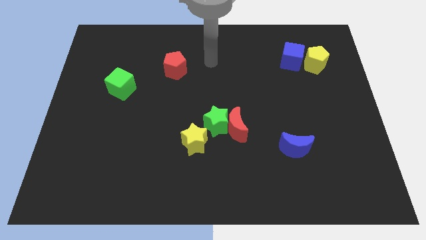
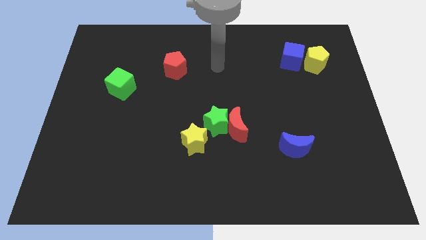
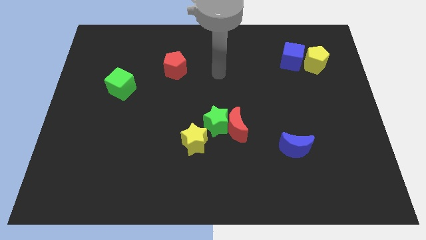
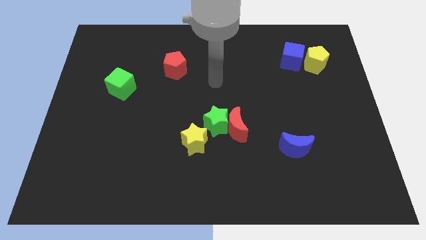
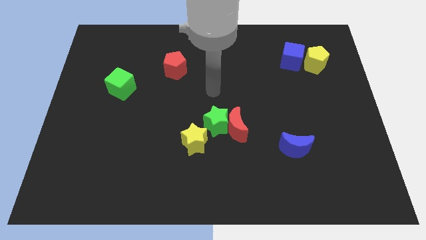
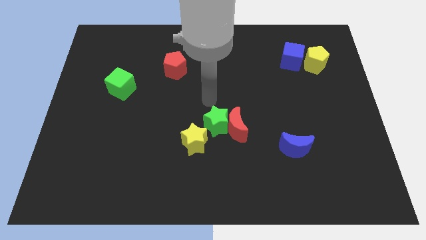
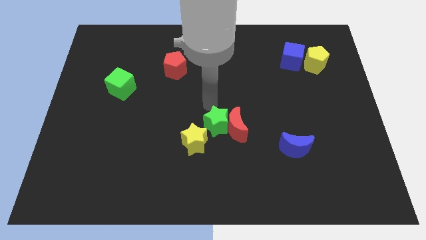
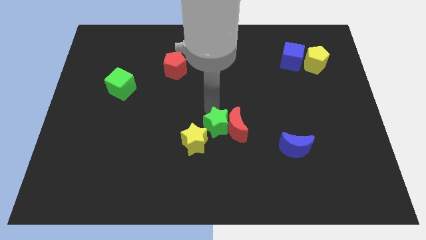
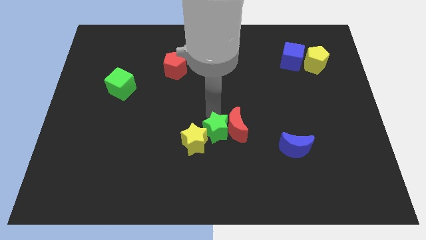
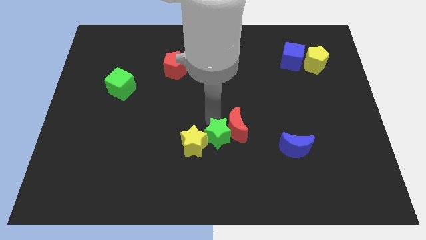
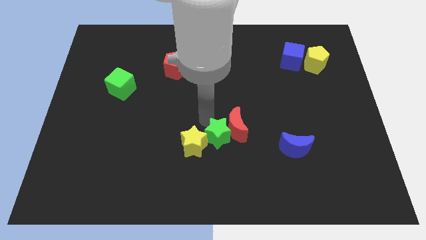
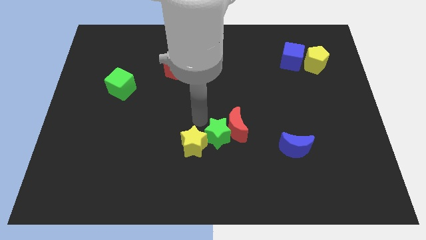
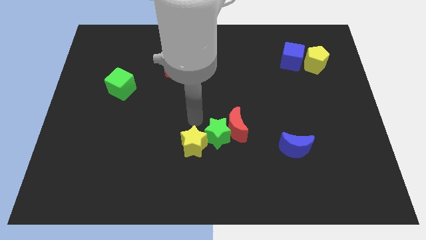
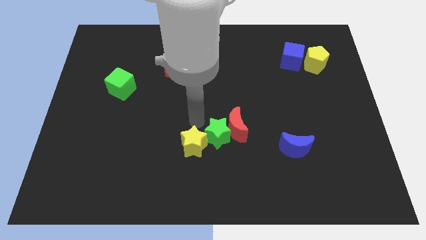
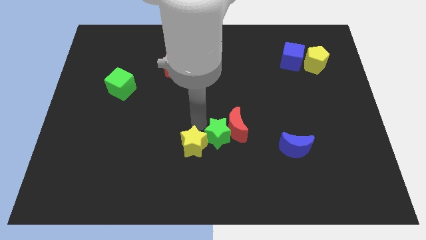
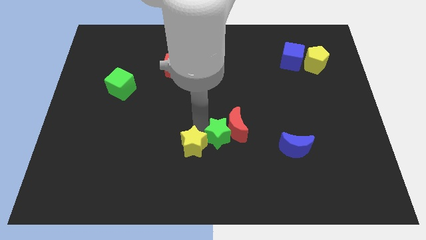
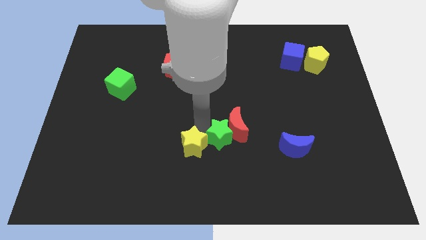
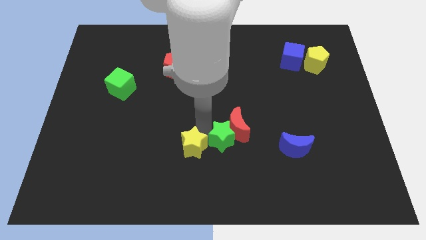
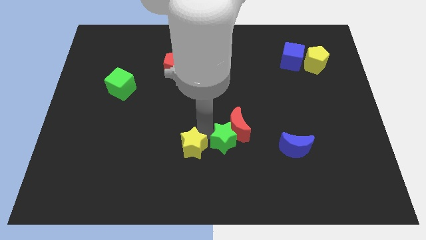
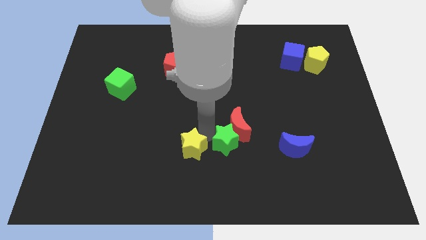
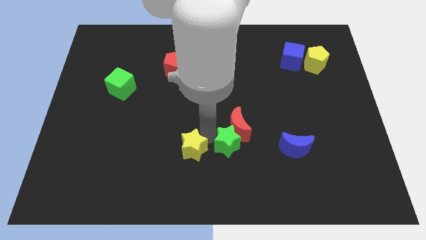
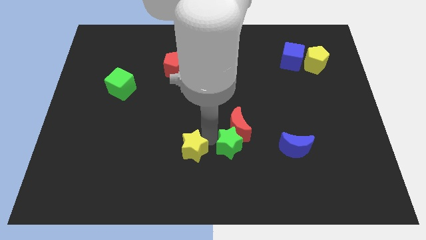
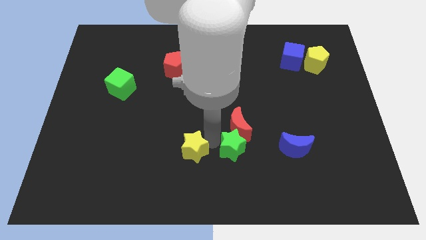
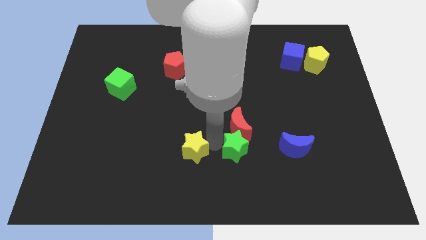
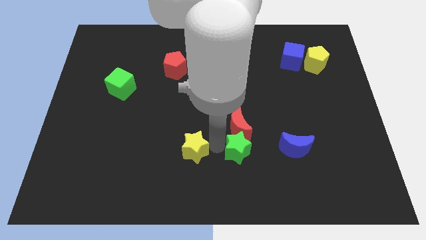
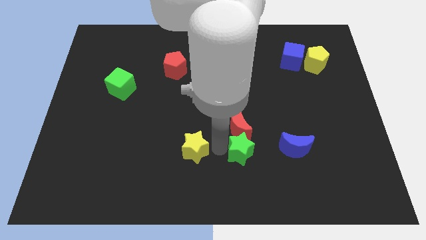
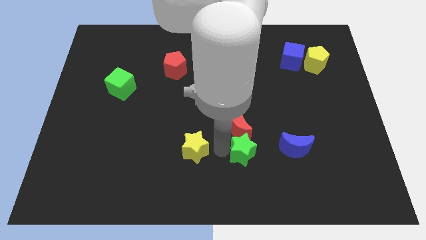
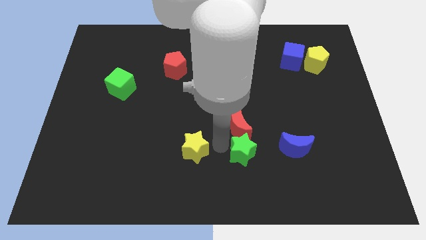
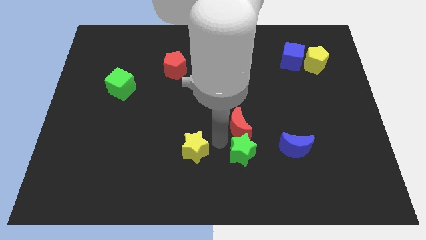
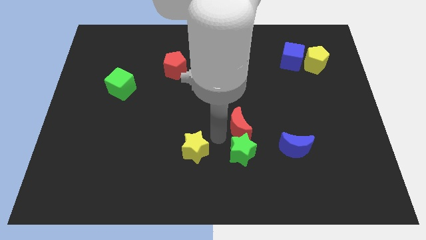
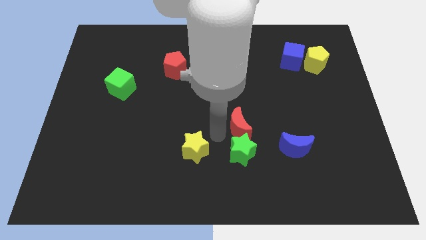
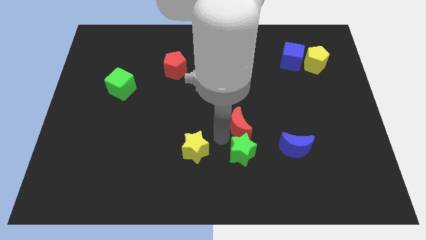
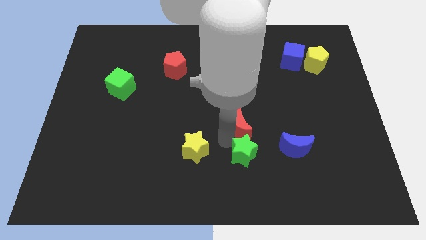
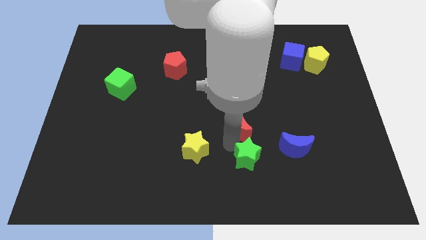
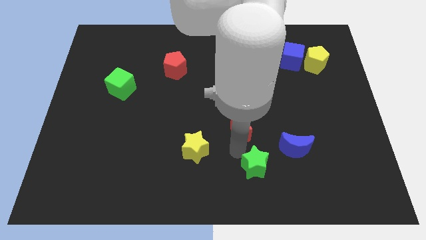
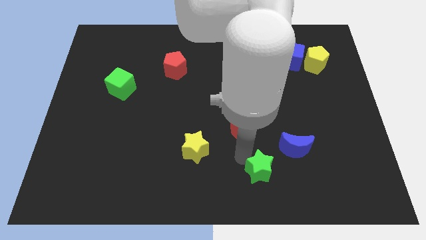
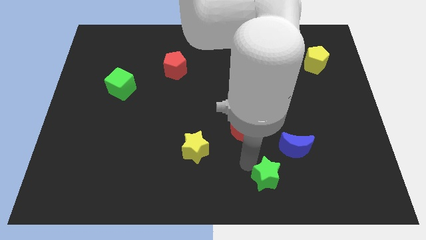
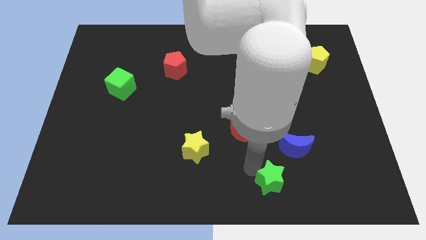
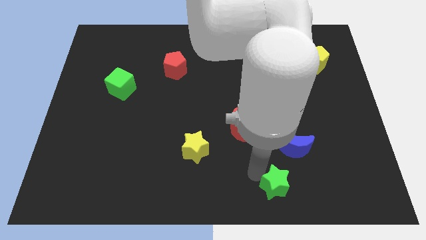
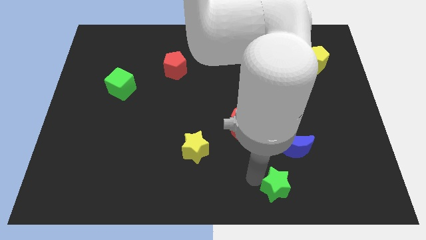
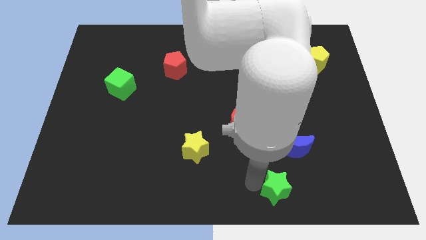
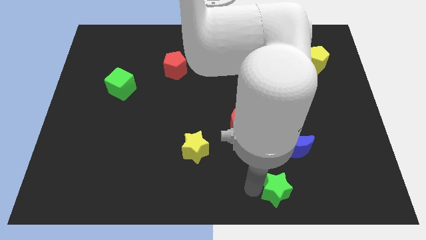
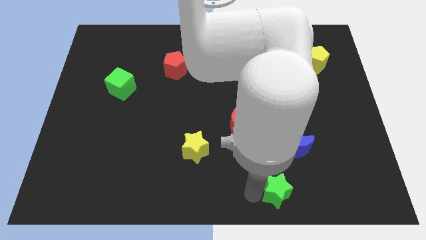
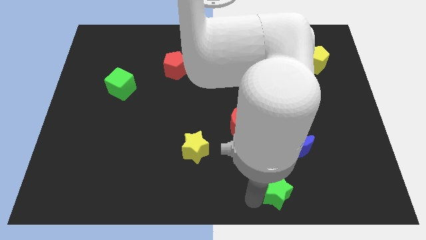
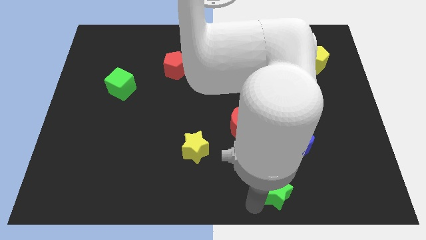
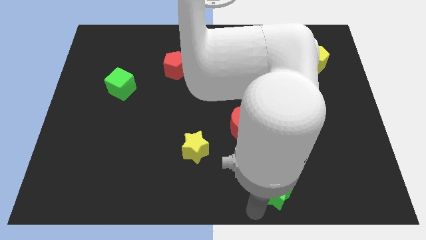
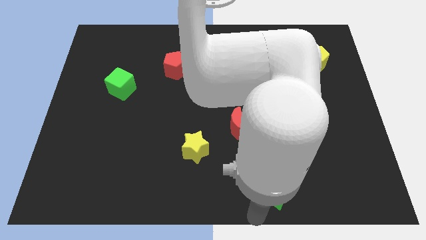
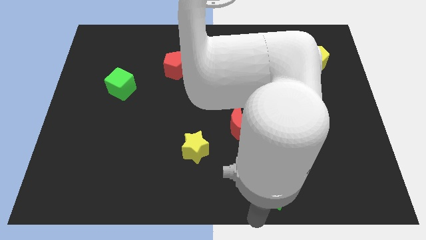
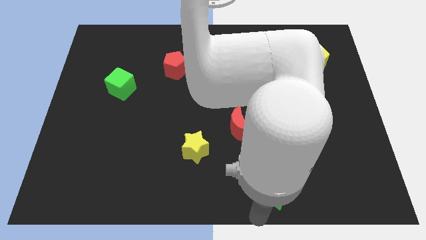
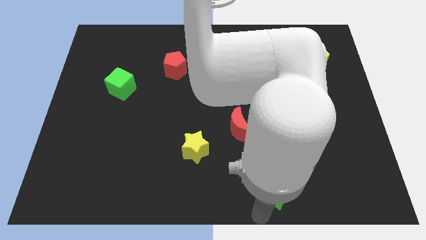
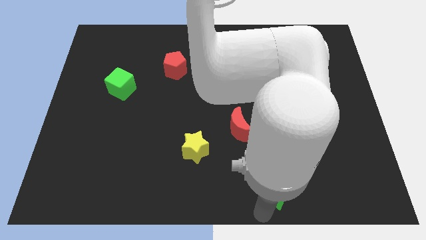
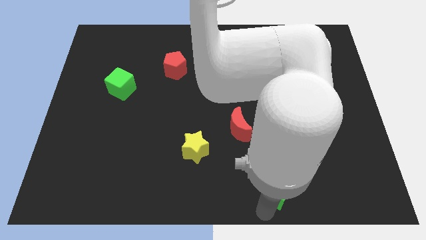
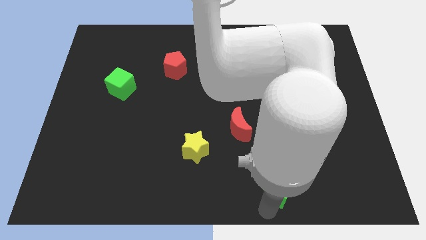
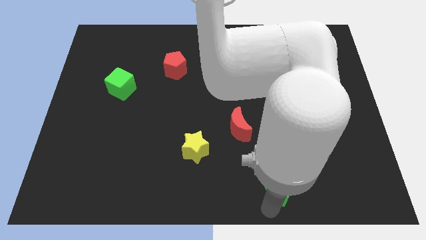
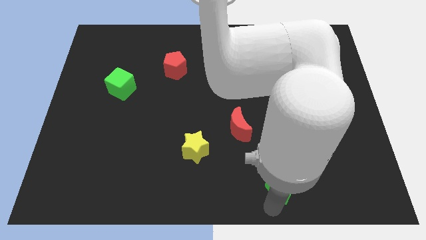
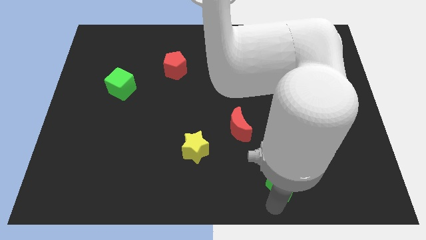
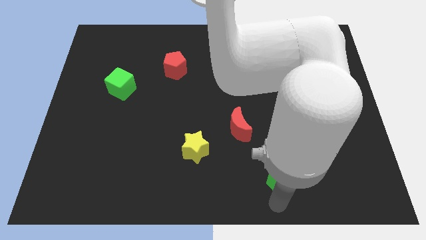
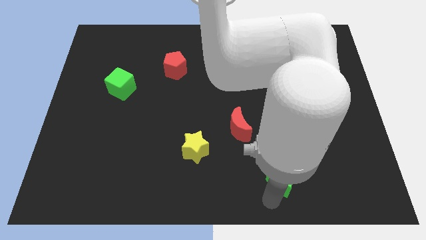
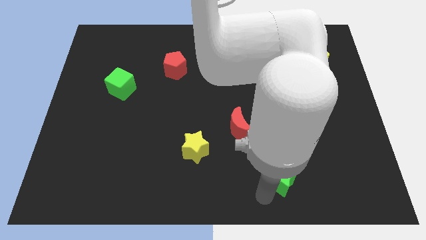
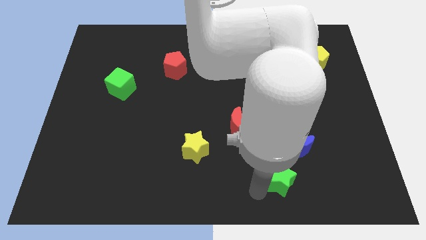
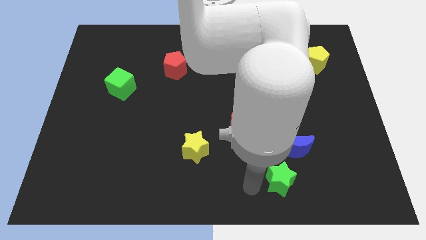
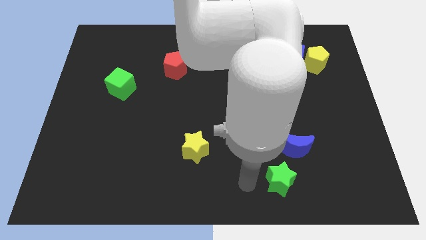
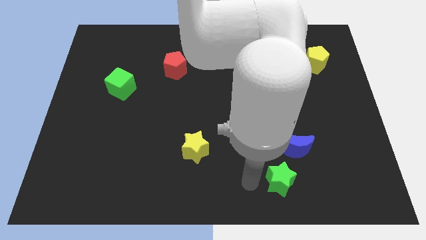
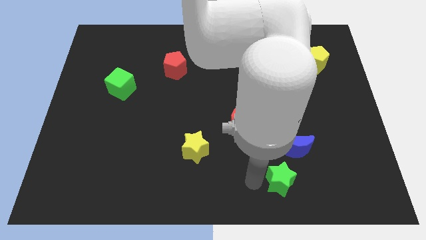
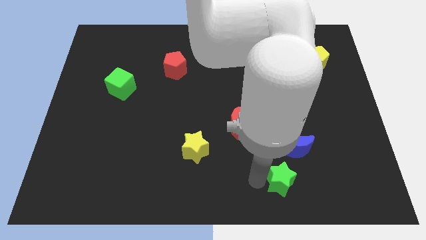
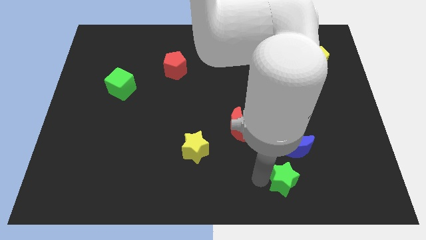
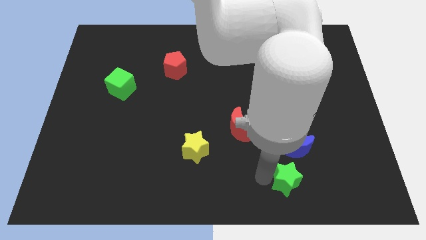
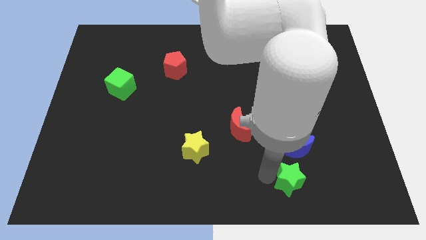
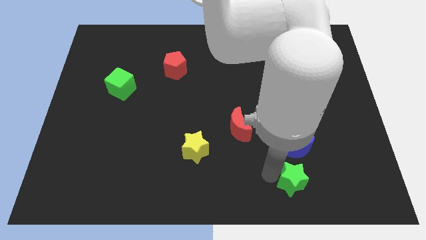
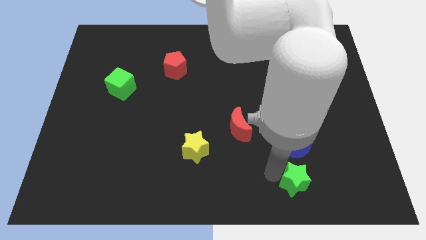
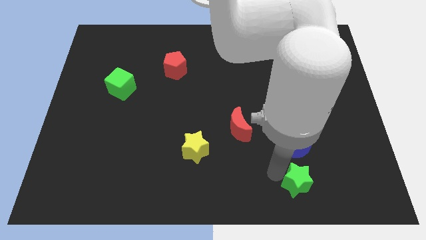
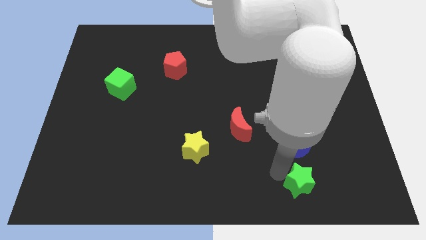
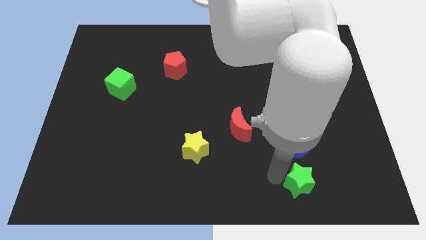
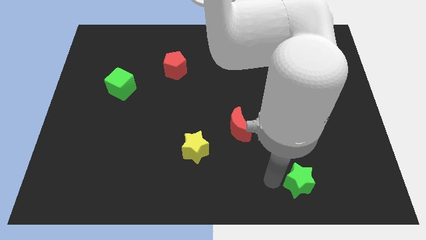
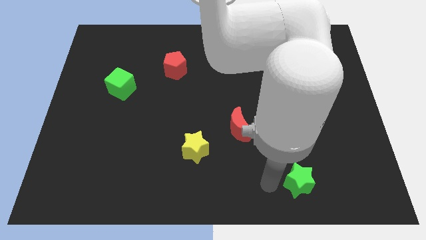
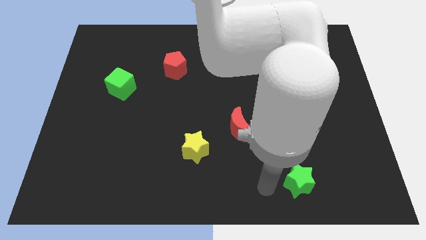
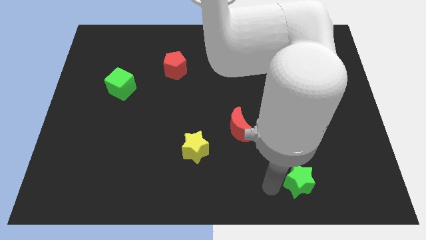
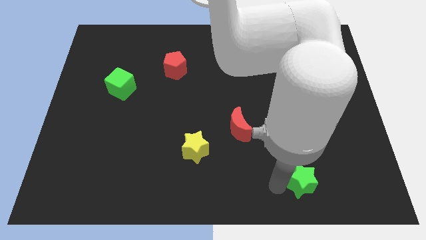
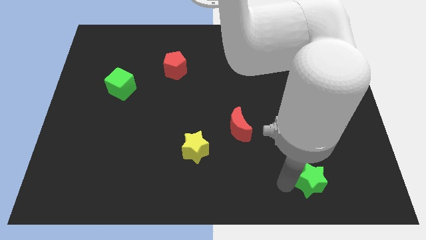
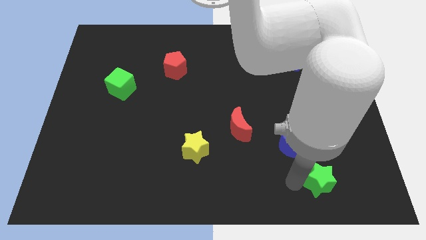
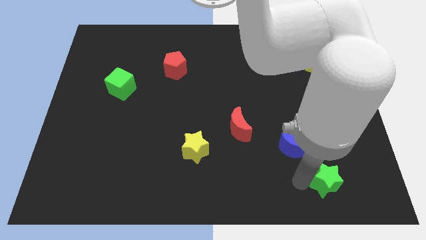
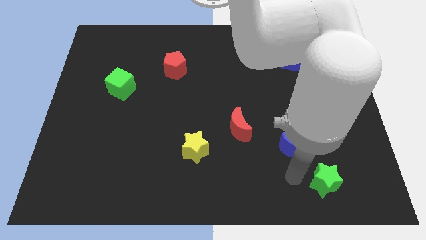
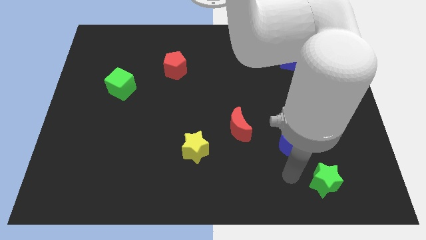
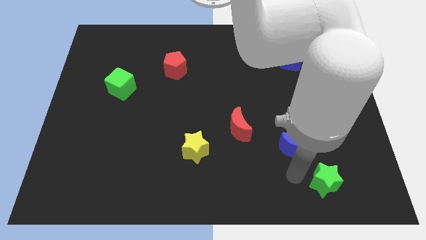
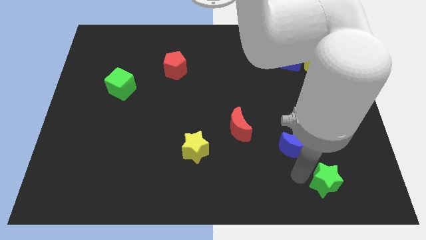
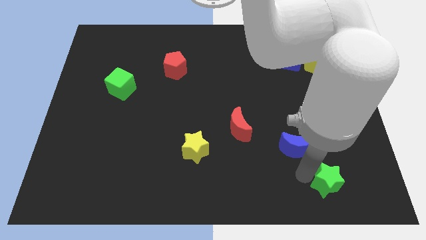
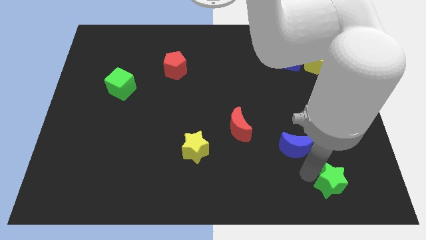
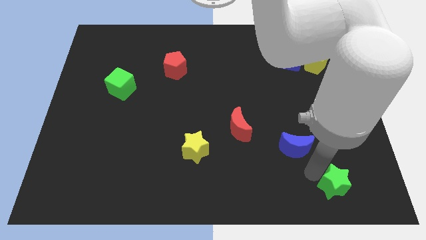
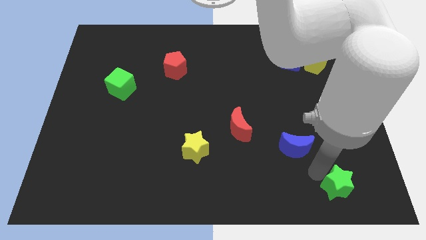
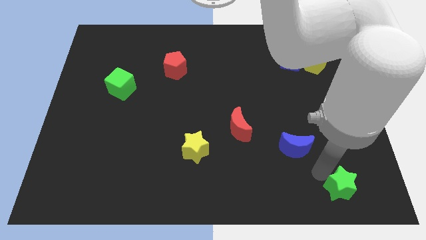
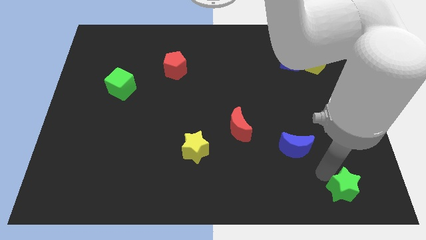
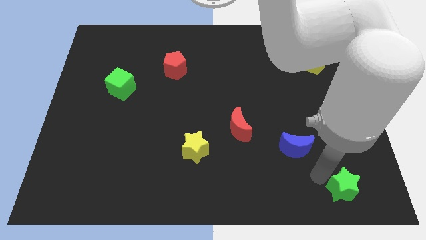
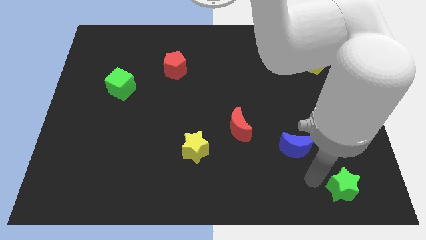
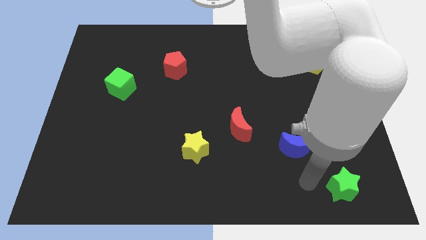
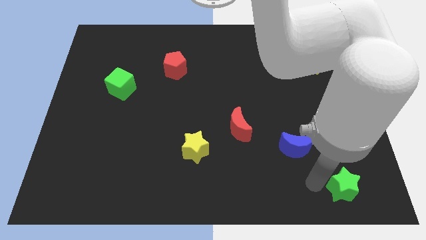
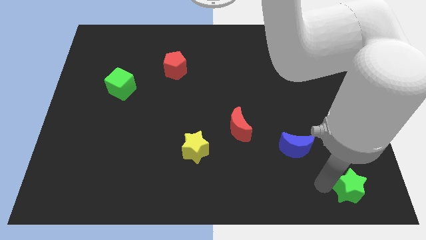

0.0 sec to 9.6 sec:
slide the green star to the lower right corner
